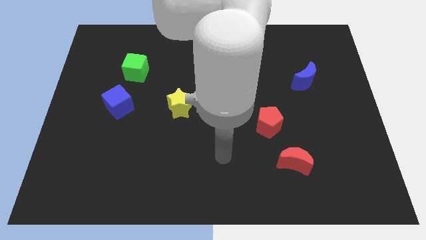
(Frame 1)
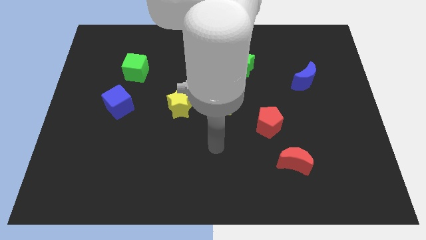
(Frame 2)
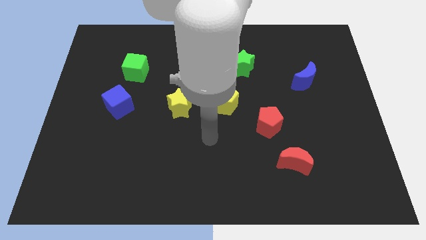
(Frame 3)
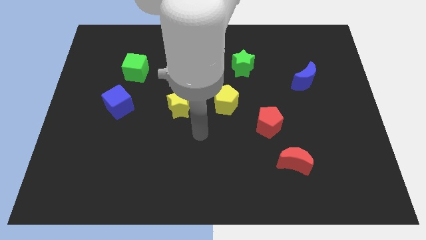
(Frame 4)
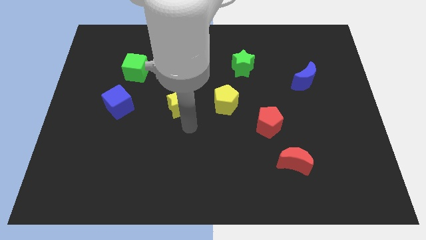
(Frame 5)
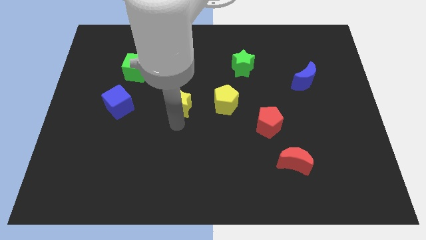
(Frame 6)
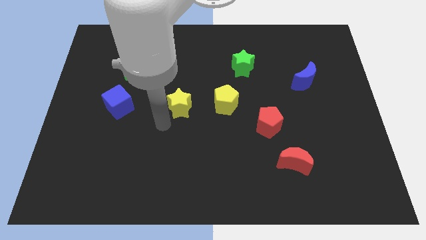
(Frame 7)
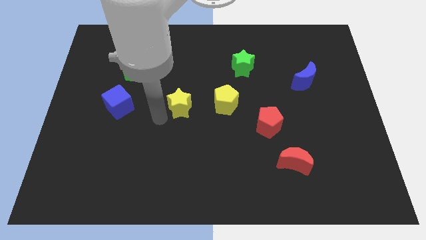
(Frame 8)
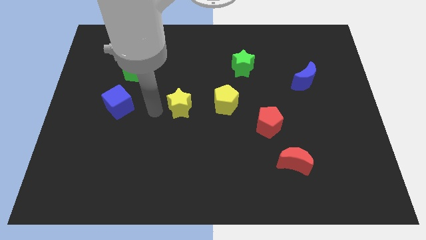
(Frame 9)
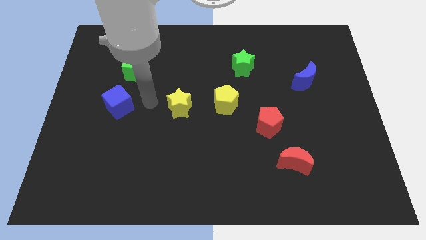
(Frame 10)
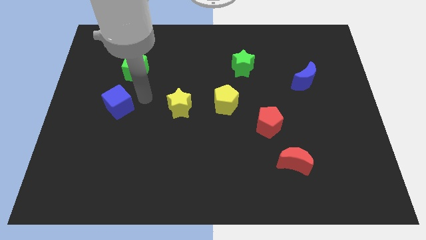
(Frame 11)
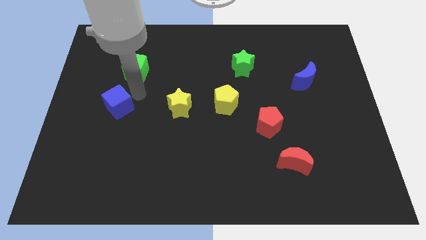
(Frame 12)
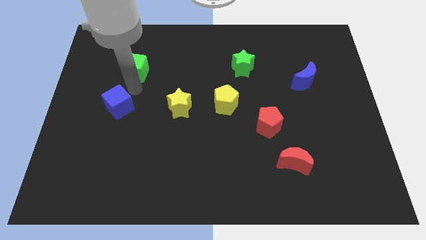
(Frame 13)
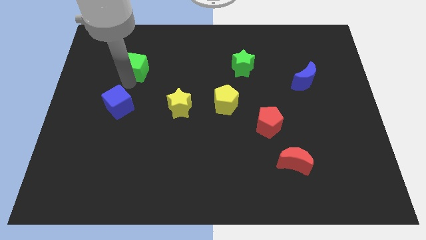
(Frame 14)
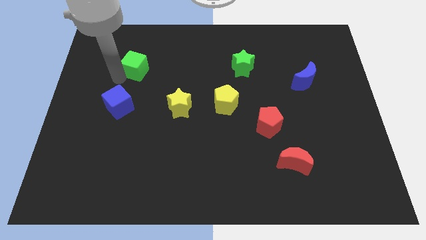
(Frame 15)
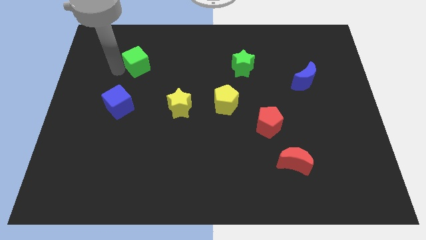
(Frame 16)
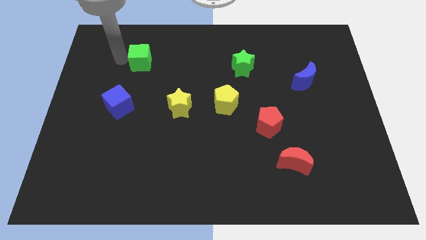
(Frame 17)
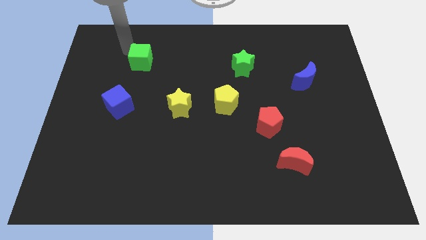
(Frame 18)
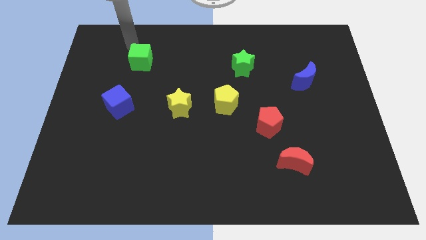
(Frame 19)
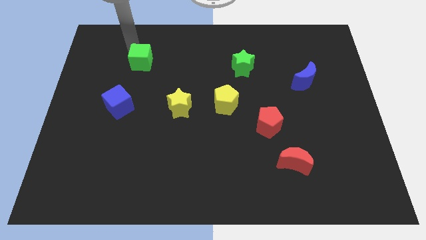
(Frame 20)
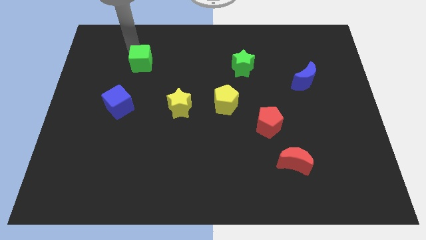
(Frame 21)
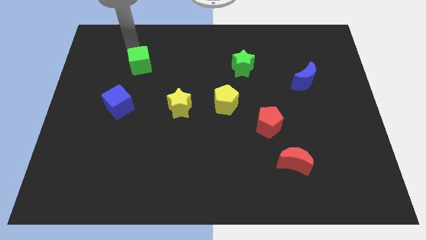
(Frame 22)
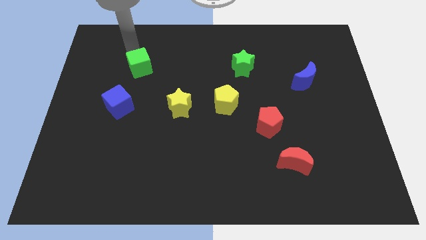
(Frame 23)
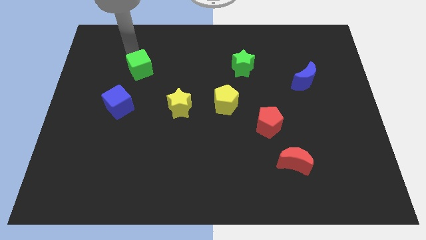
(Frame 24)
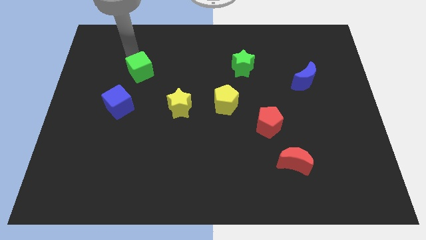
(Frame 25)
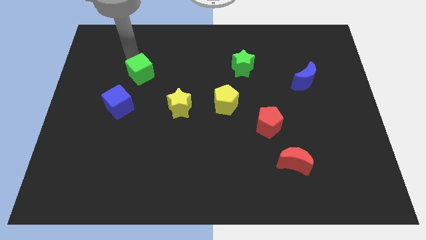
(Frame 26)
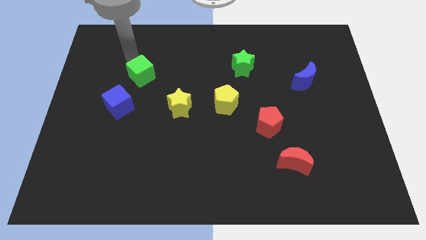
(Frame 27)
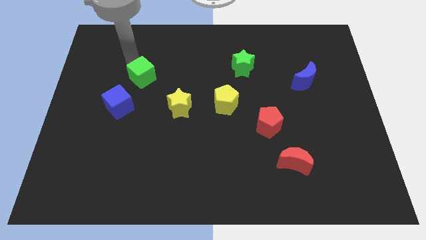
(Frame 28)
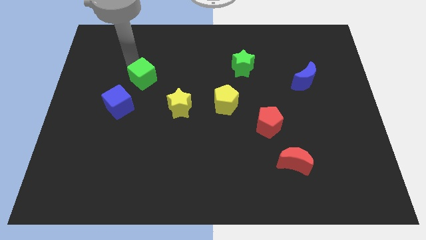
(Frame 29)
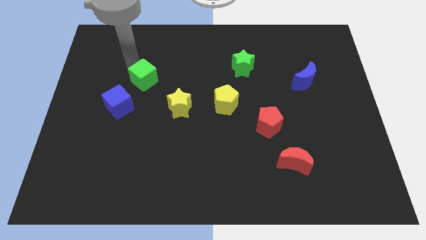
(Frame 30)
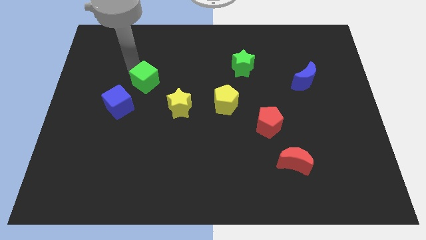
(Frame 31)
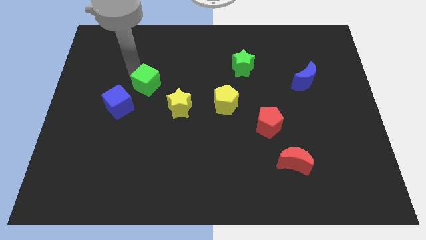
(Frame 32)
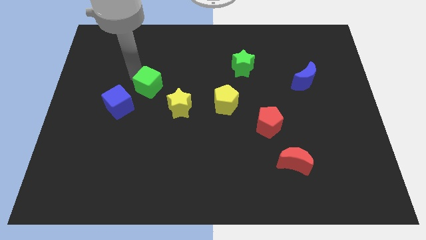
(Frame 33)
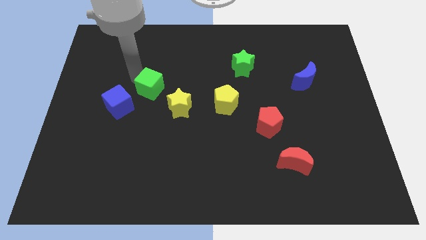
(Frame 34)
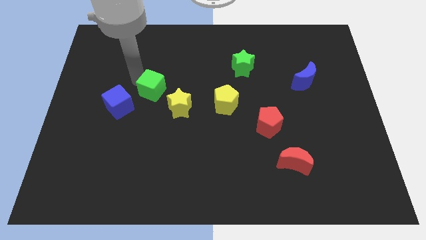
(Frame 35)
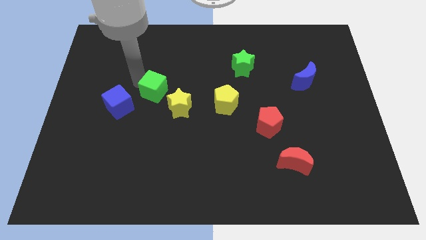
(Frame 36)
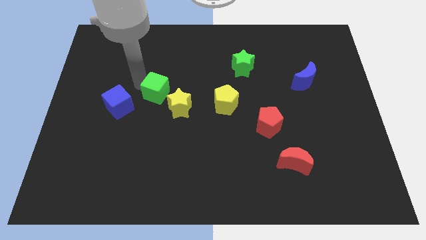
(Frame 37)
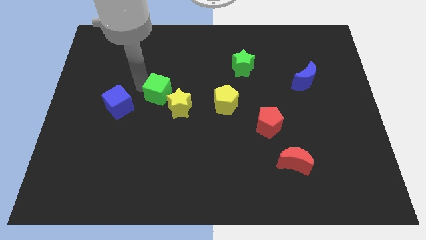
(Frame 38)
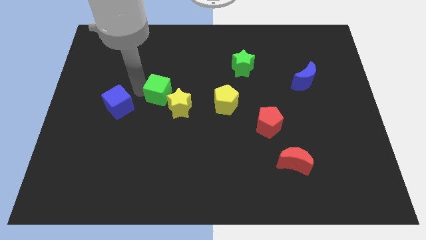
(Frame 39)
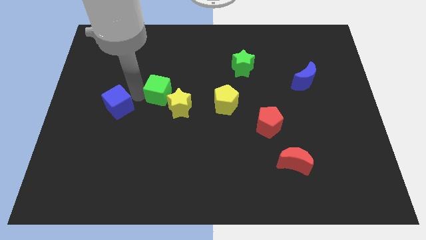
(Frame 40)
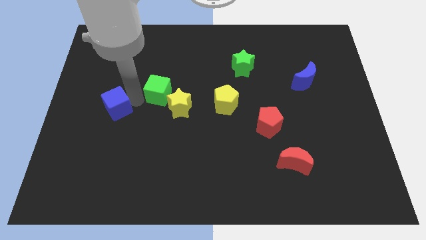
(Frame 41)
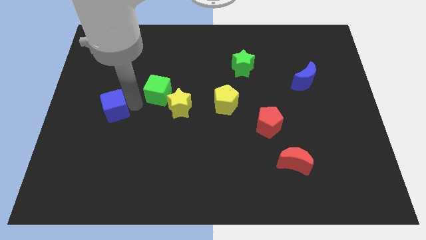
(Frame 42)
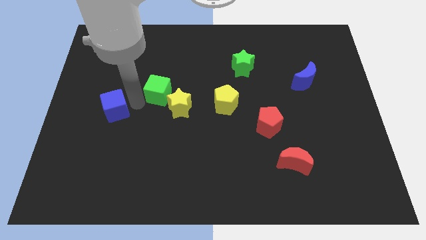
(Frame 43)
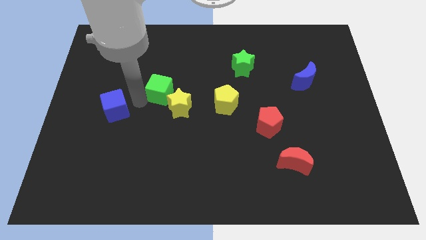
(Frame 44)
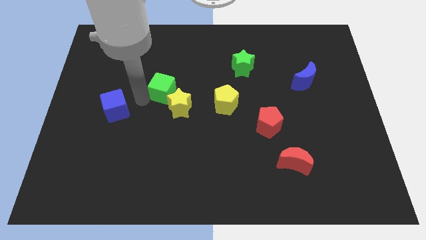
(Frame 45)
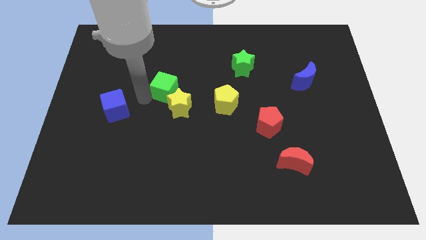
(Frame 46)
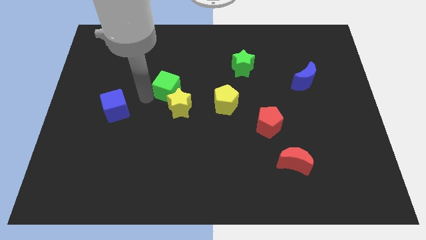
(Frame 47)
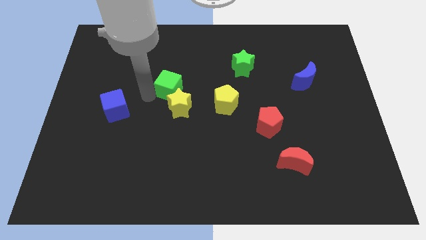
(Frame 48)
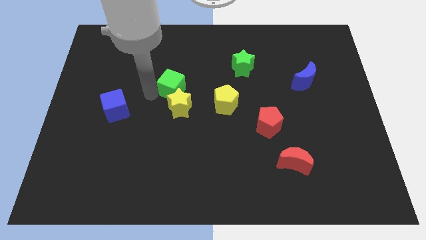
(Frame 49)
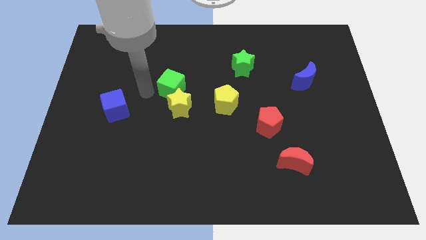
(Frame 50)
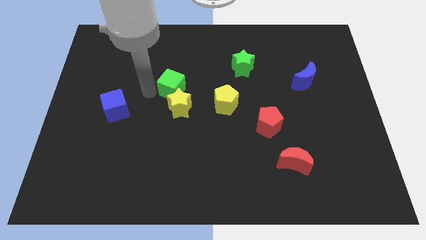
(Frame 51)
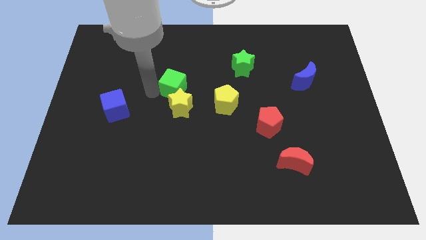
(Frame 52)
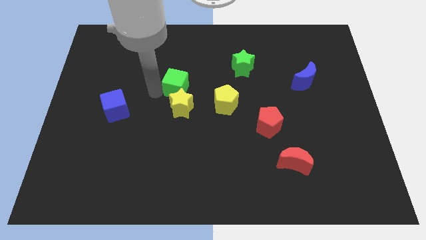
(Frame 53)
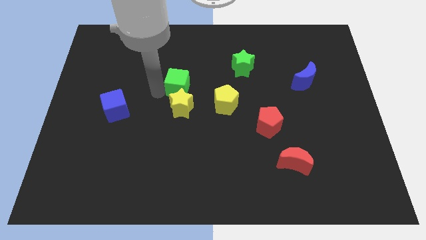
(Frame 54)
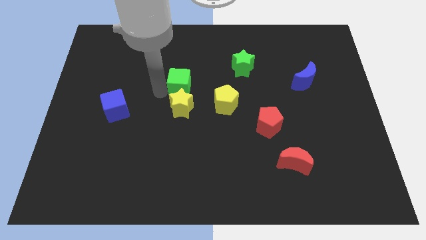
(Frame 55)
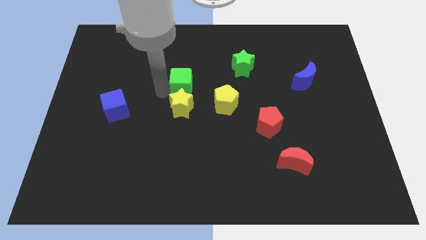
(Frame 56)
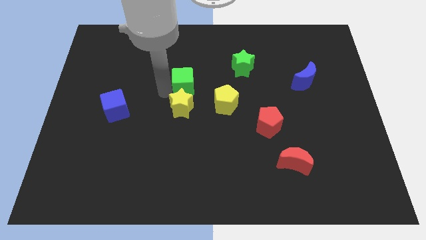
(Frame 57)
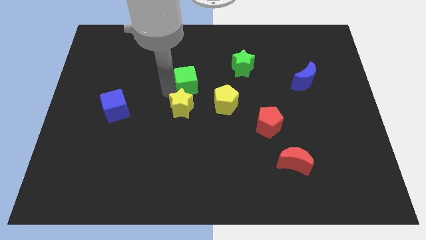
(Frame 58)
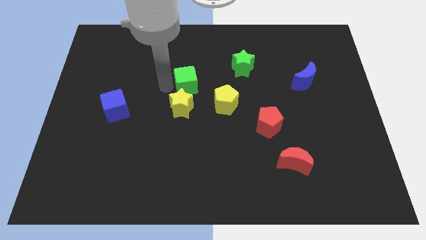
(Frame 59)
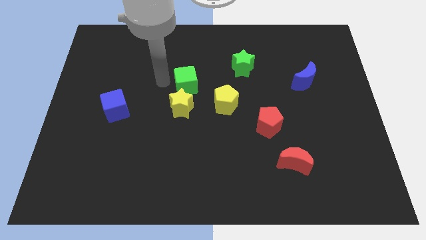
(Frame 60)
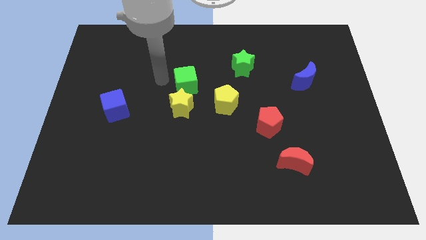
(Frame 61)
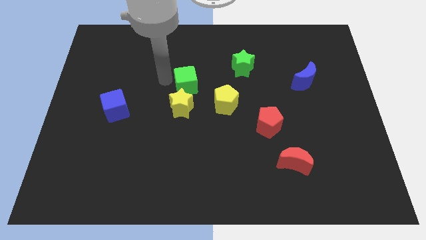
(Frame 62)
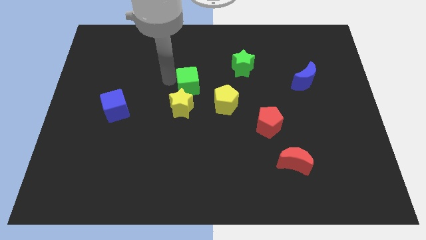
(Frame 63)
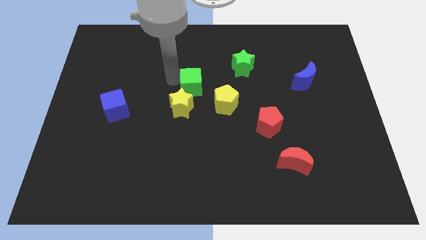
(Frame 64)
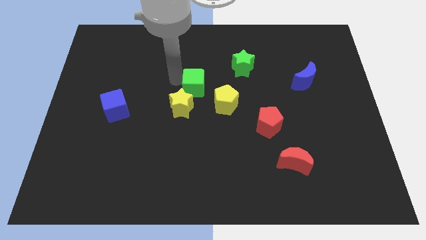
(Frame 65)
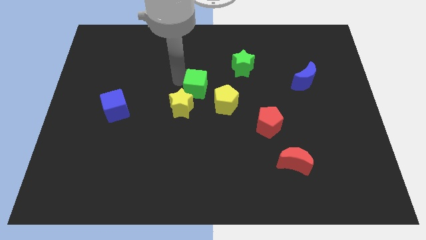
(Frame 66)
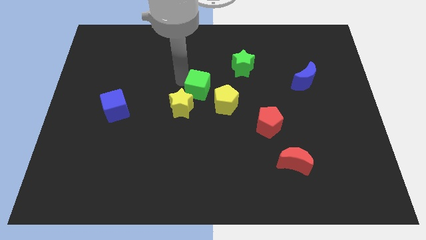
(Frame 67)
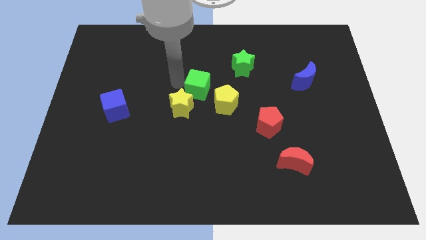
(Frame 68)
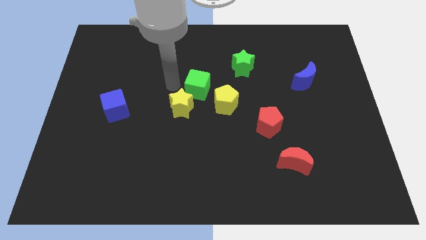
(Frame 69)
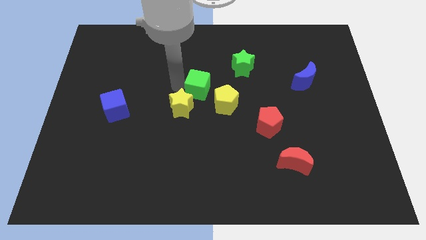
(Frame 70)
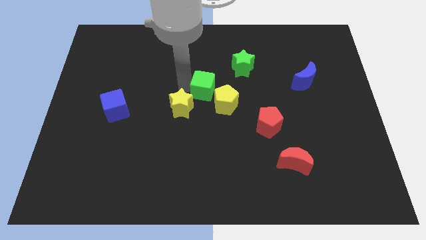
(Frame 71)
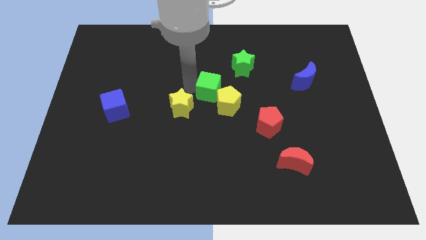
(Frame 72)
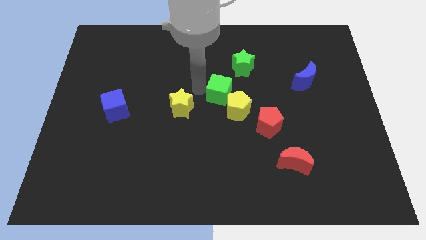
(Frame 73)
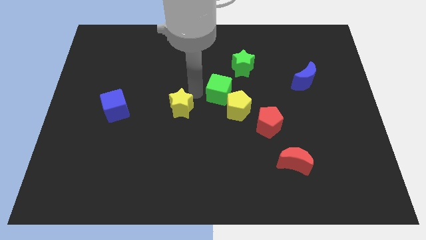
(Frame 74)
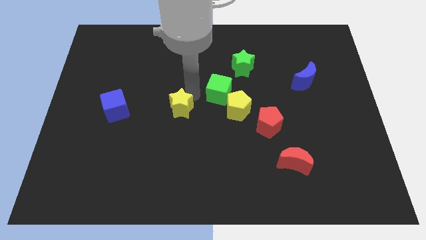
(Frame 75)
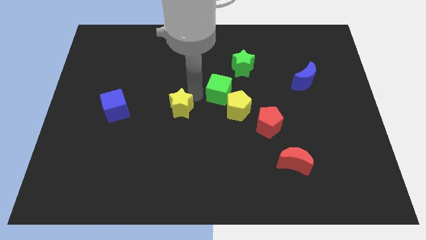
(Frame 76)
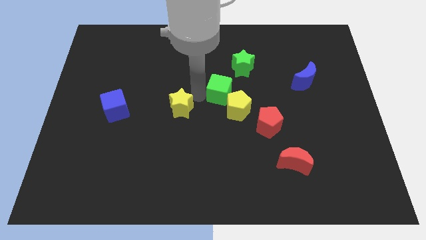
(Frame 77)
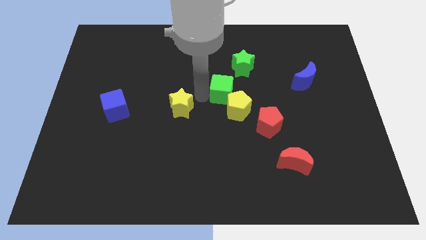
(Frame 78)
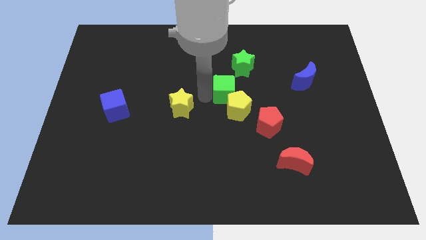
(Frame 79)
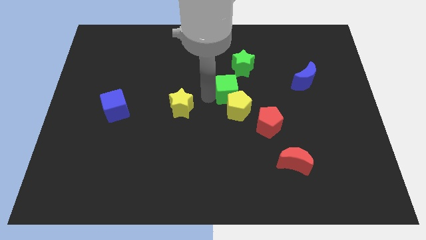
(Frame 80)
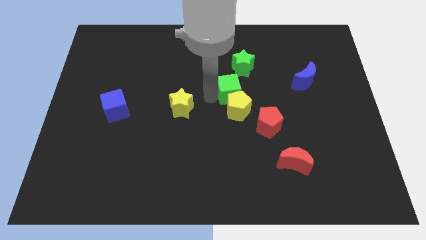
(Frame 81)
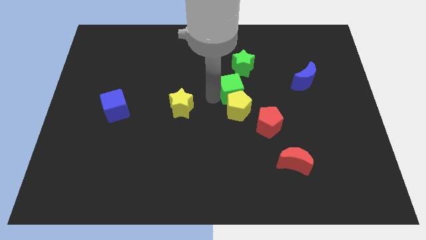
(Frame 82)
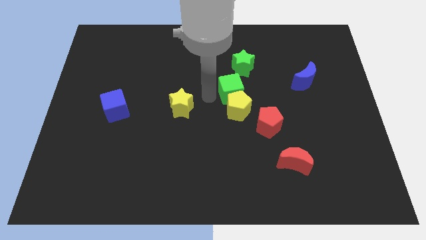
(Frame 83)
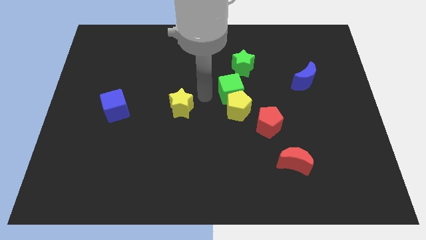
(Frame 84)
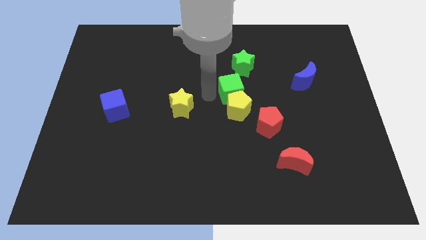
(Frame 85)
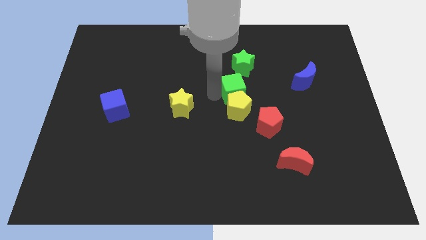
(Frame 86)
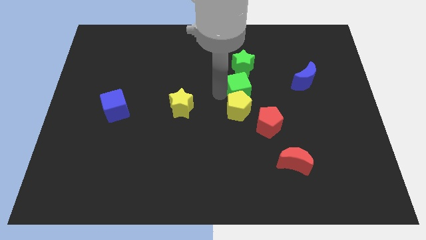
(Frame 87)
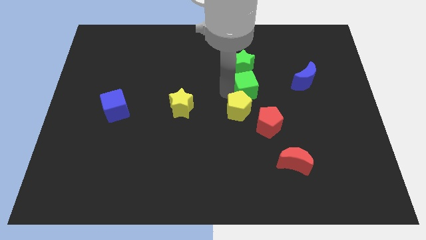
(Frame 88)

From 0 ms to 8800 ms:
put the green cube to the top side of the red pentagon
